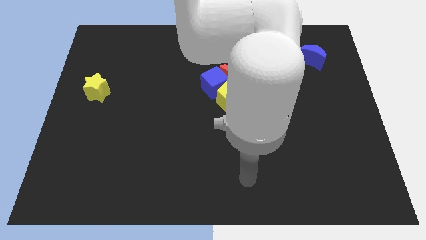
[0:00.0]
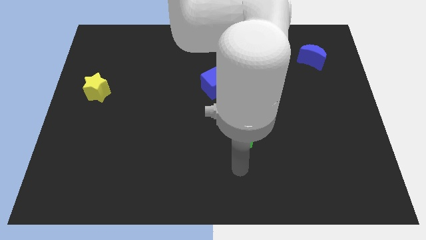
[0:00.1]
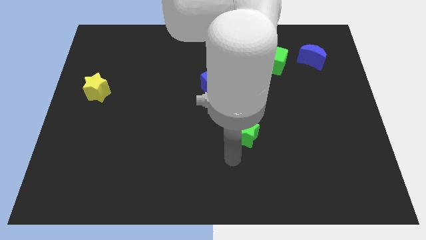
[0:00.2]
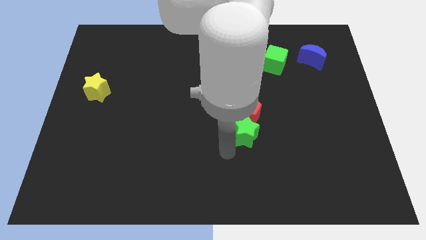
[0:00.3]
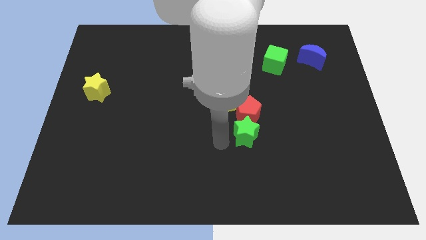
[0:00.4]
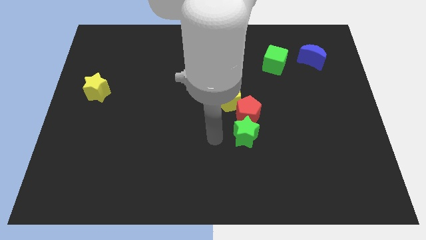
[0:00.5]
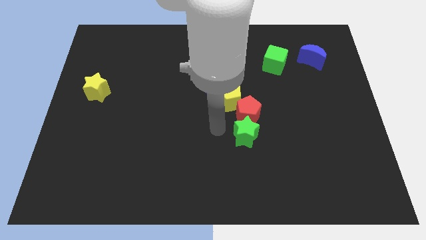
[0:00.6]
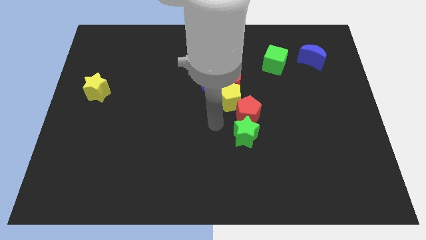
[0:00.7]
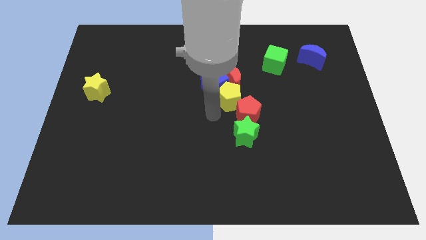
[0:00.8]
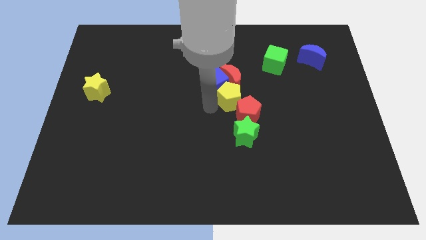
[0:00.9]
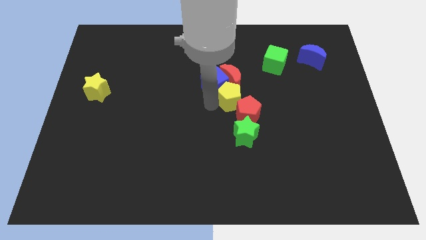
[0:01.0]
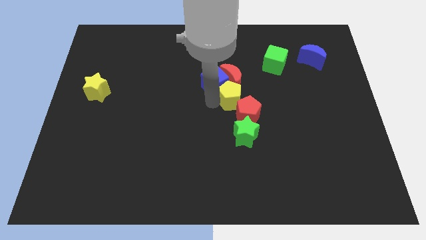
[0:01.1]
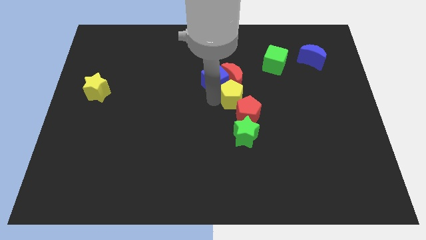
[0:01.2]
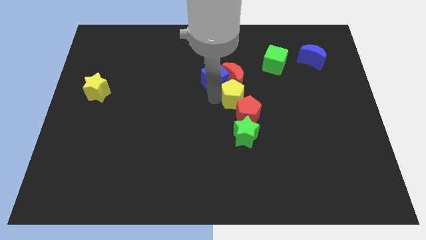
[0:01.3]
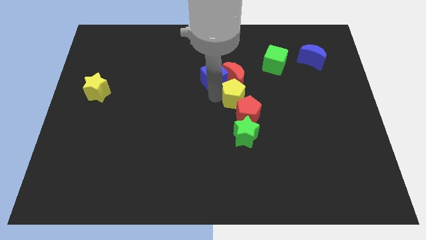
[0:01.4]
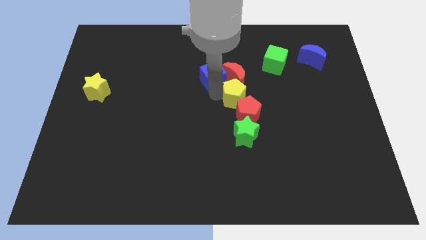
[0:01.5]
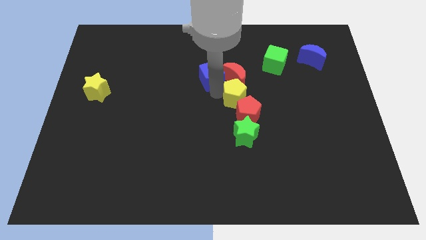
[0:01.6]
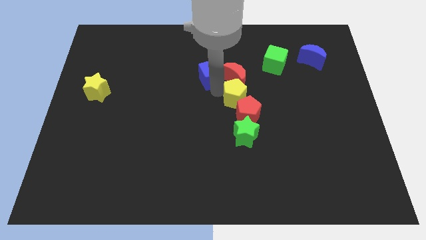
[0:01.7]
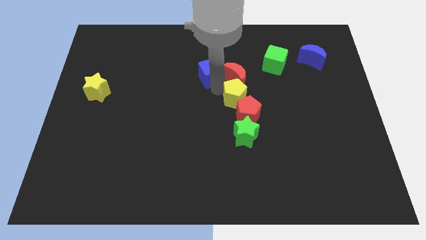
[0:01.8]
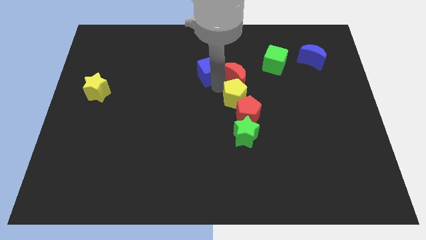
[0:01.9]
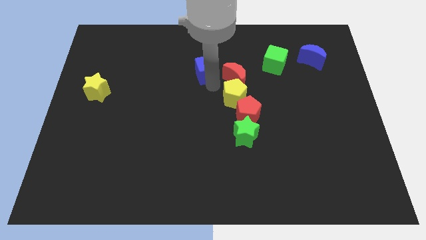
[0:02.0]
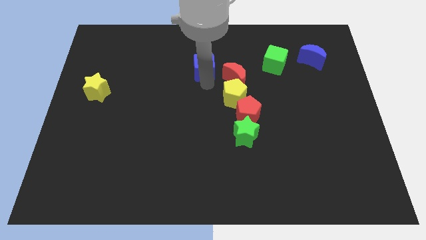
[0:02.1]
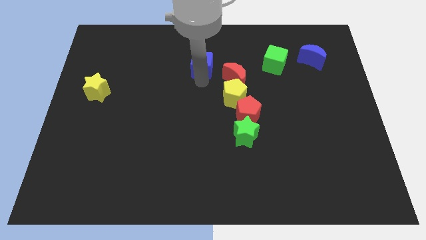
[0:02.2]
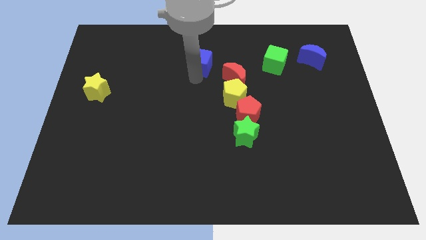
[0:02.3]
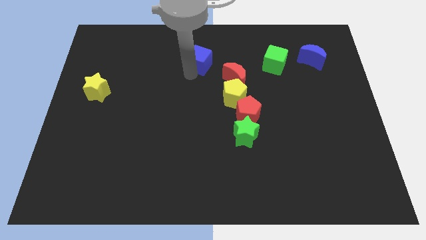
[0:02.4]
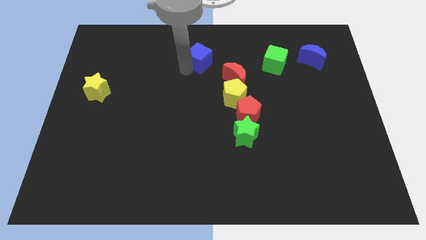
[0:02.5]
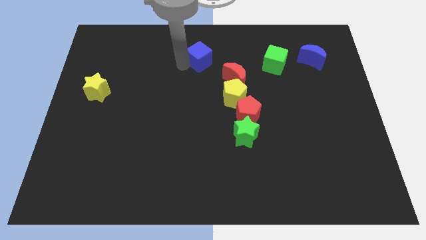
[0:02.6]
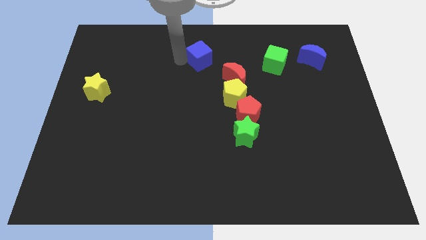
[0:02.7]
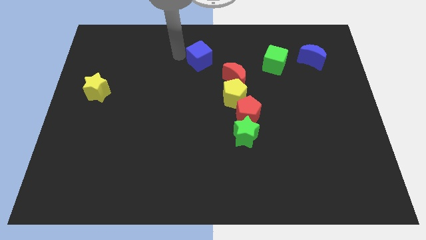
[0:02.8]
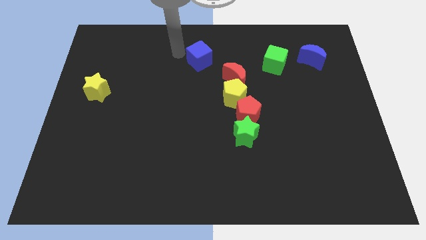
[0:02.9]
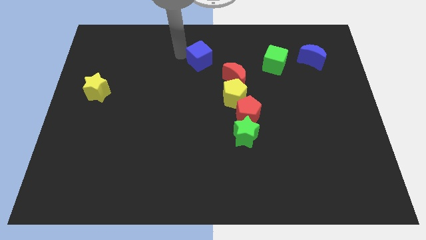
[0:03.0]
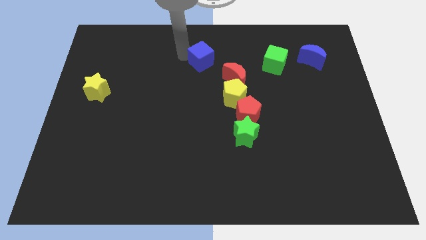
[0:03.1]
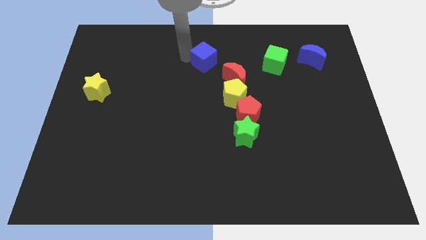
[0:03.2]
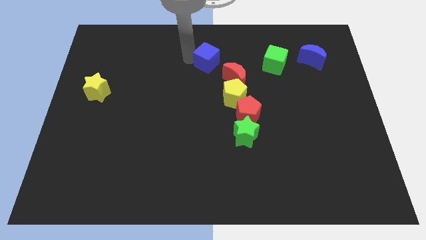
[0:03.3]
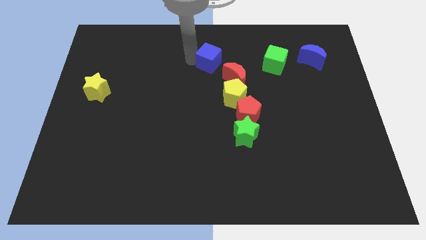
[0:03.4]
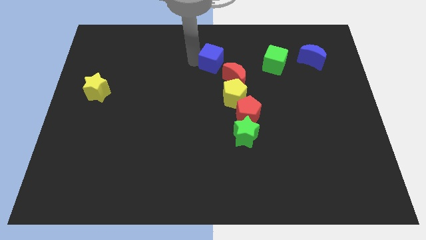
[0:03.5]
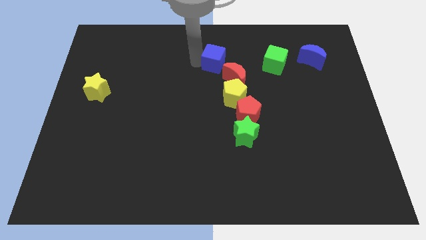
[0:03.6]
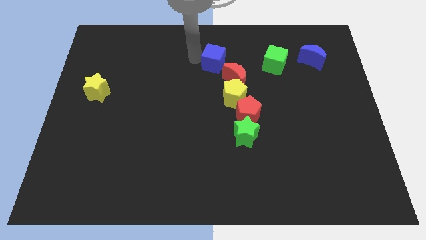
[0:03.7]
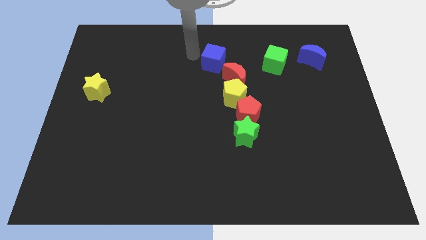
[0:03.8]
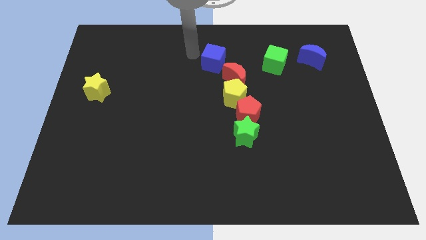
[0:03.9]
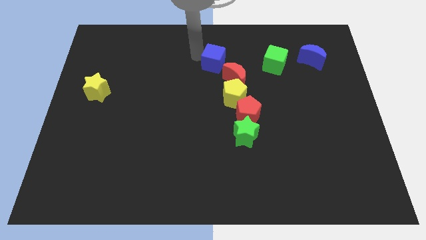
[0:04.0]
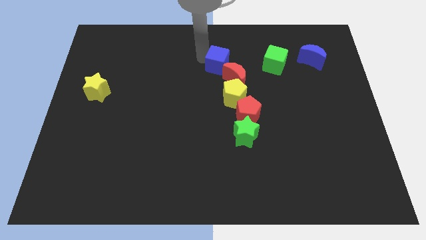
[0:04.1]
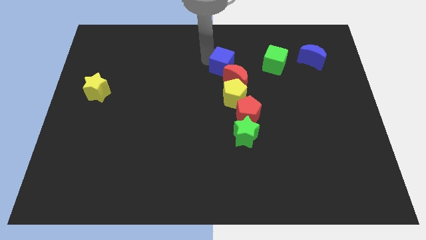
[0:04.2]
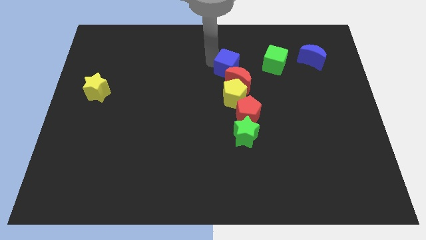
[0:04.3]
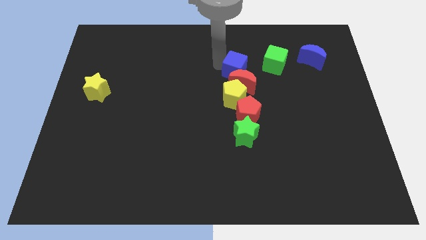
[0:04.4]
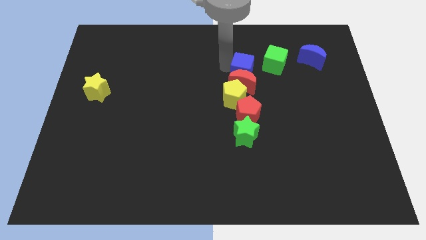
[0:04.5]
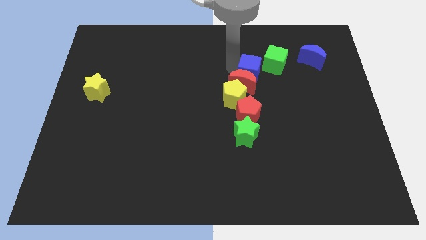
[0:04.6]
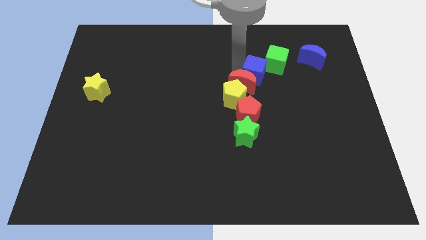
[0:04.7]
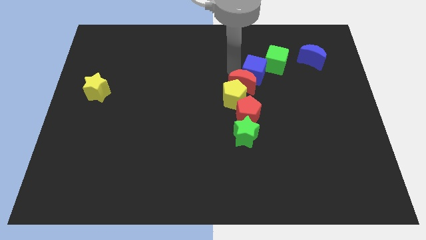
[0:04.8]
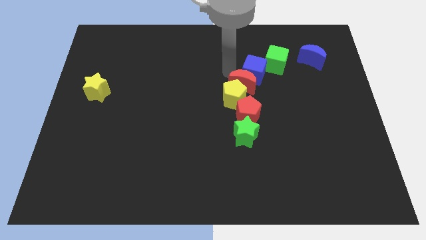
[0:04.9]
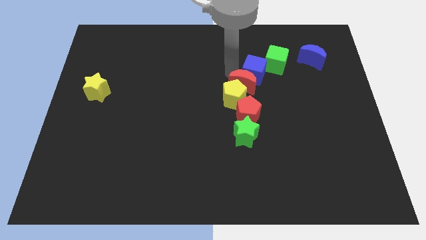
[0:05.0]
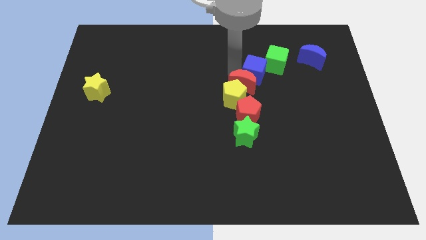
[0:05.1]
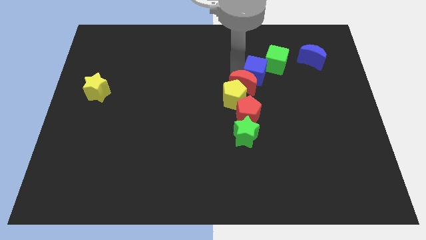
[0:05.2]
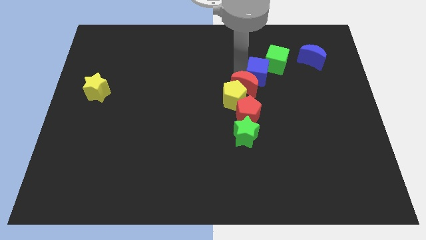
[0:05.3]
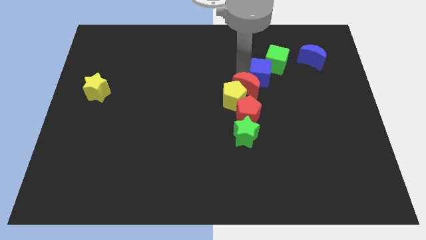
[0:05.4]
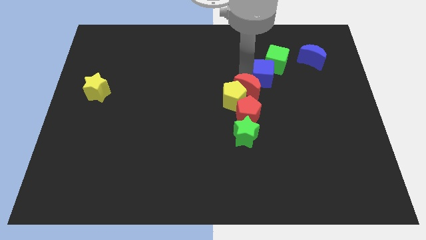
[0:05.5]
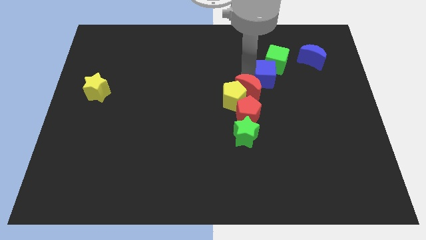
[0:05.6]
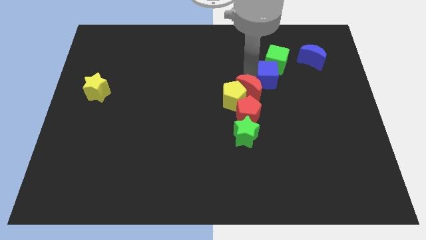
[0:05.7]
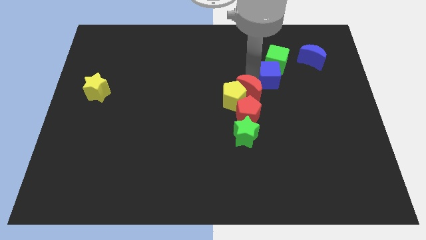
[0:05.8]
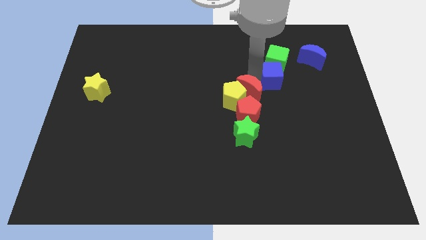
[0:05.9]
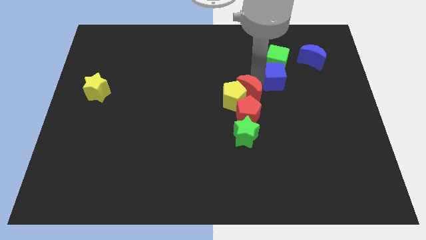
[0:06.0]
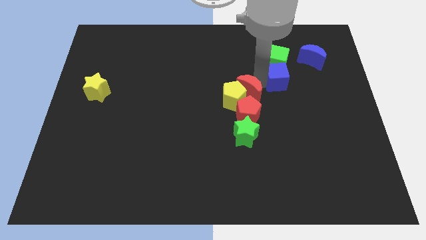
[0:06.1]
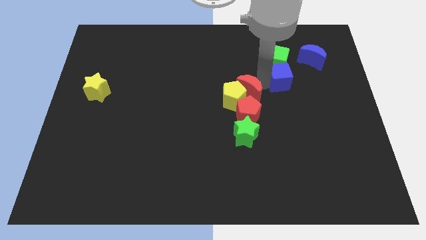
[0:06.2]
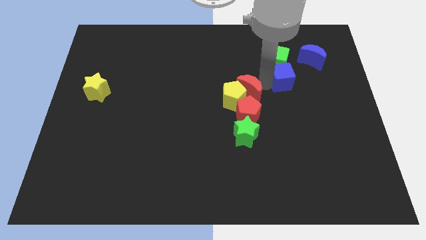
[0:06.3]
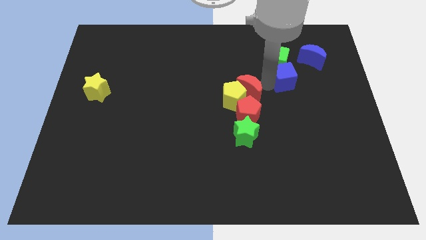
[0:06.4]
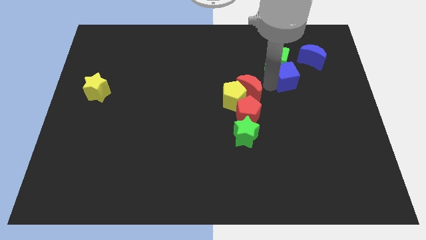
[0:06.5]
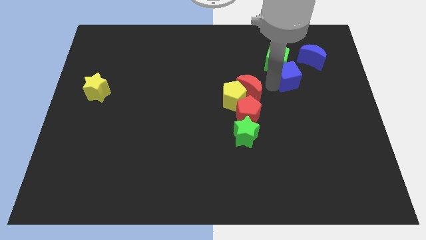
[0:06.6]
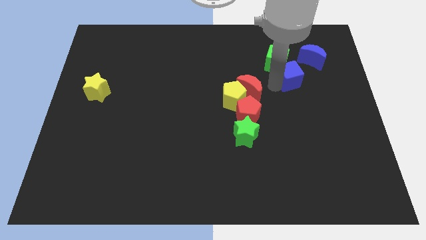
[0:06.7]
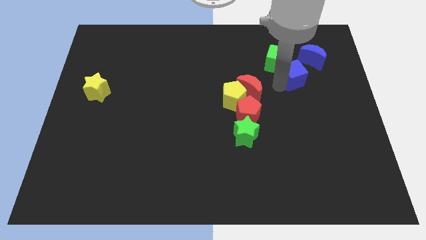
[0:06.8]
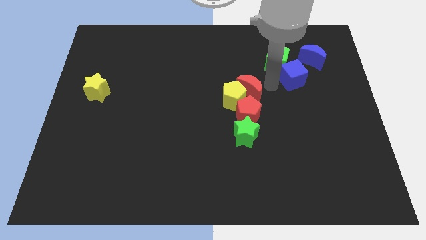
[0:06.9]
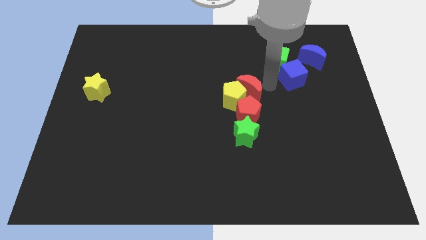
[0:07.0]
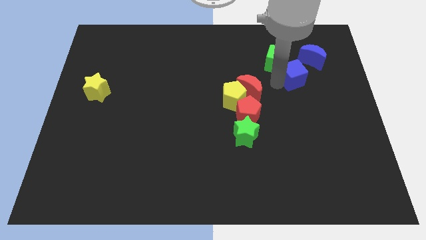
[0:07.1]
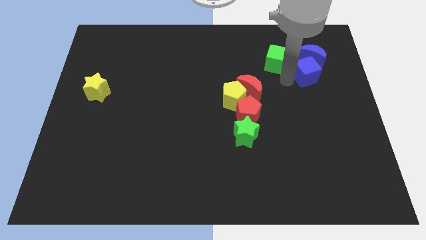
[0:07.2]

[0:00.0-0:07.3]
slide the blue cube just right of the green cube
